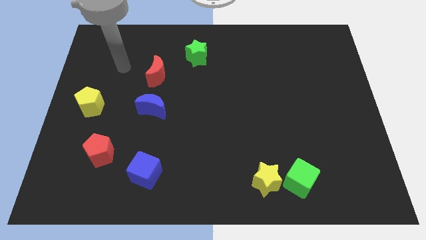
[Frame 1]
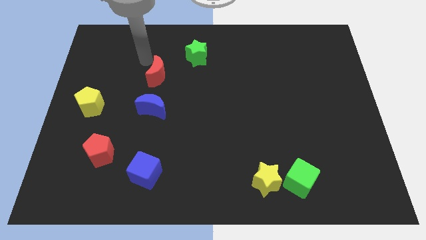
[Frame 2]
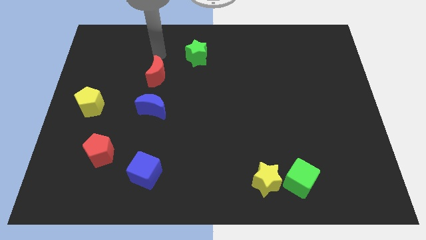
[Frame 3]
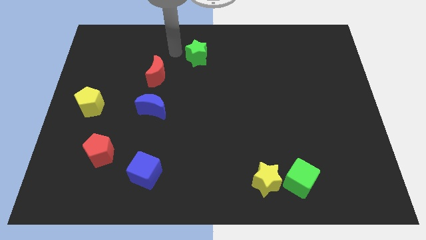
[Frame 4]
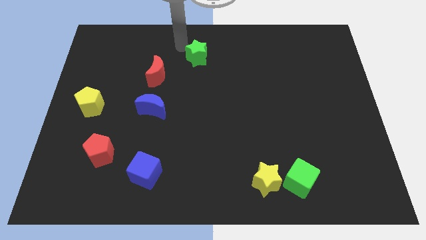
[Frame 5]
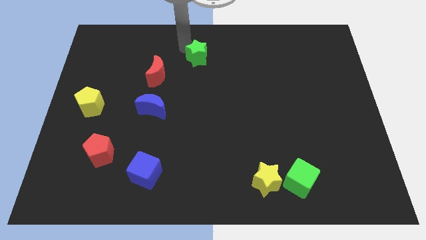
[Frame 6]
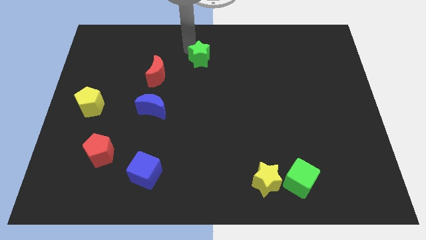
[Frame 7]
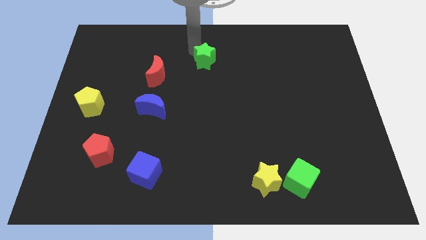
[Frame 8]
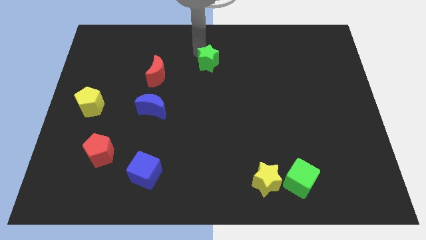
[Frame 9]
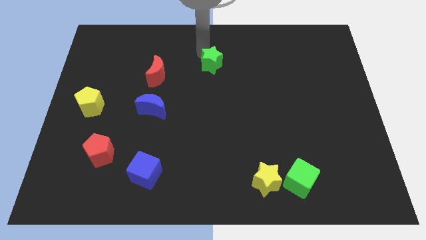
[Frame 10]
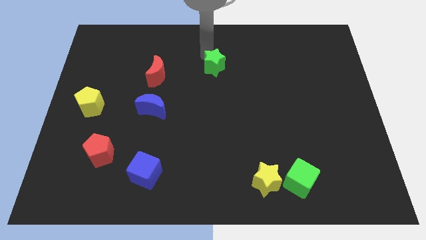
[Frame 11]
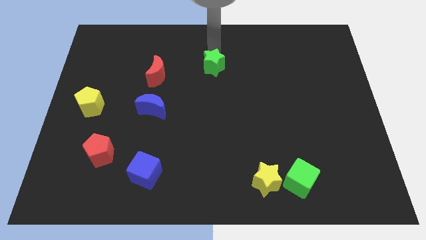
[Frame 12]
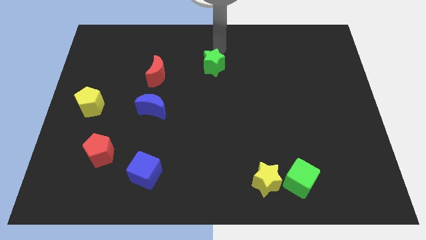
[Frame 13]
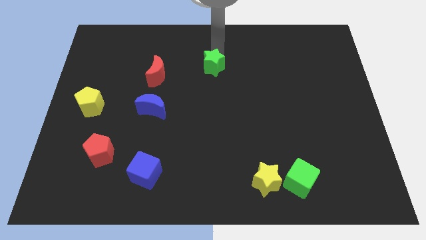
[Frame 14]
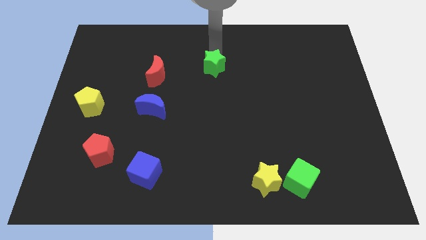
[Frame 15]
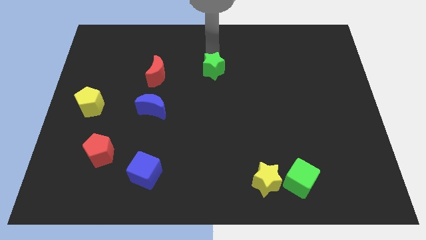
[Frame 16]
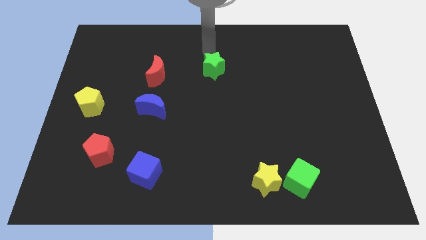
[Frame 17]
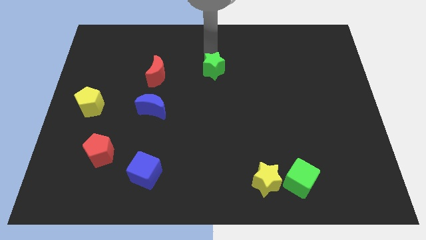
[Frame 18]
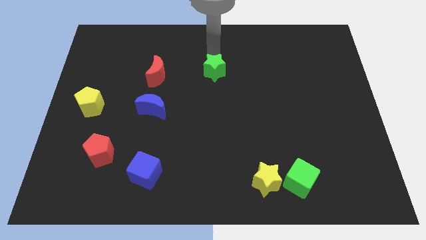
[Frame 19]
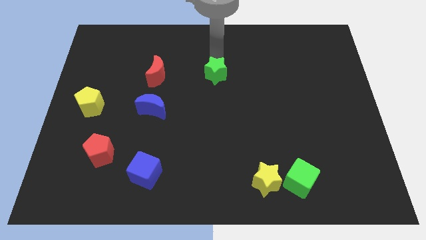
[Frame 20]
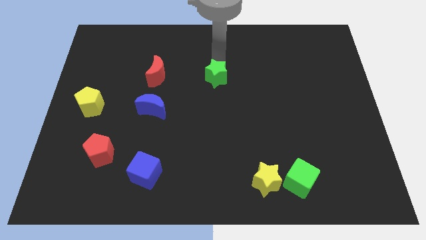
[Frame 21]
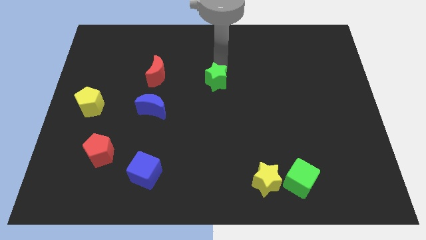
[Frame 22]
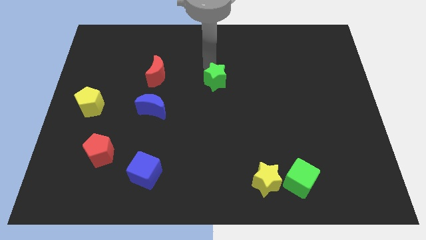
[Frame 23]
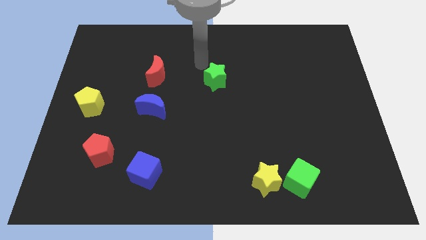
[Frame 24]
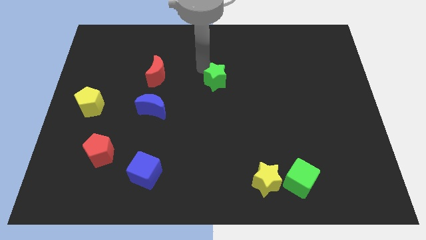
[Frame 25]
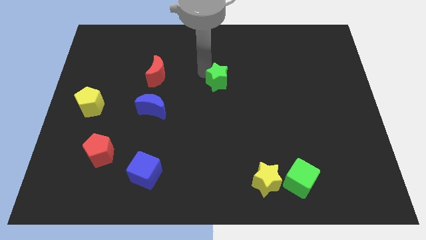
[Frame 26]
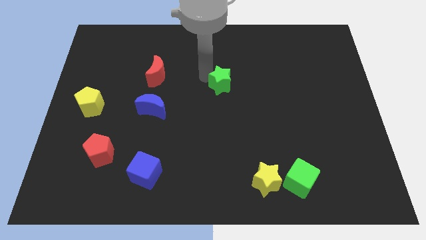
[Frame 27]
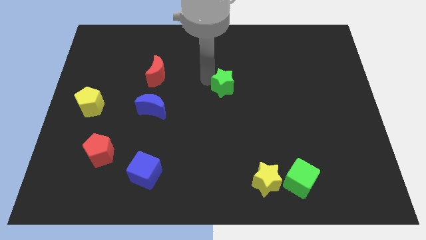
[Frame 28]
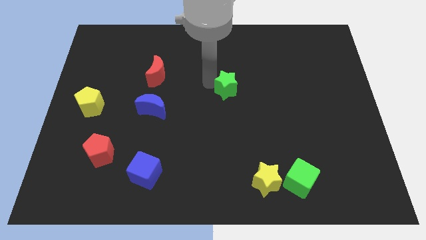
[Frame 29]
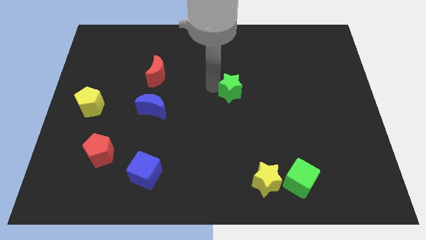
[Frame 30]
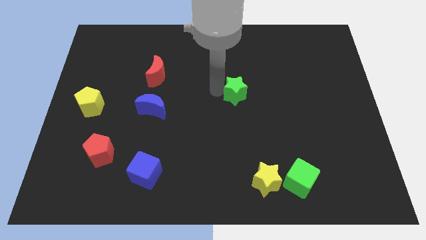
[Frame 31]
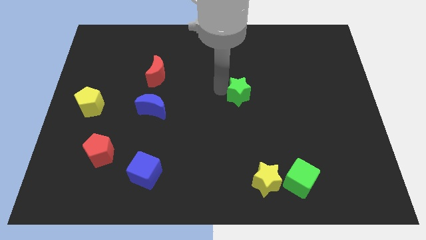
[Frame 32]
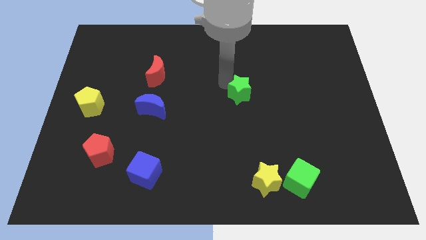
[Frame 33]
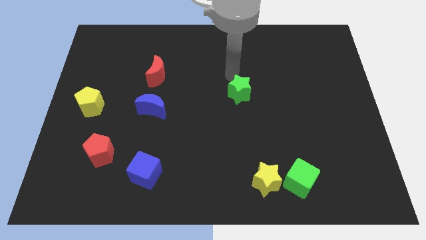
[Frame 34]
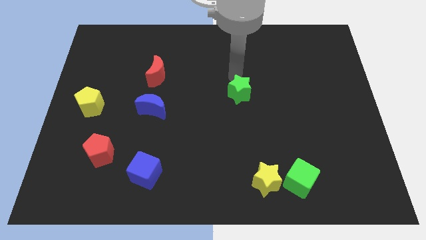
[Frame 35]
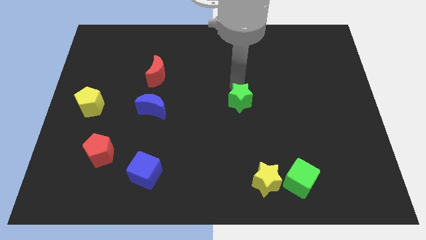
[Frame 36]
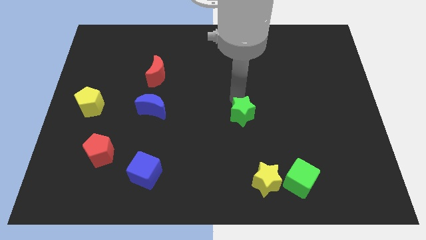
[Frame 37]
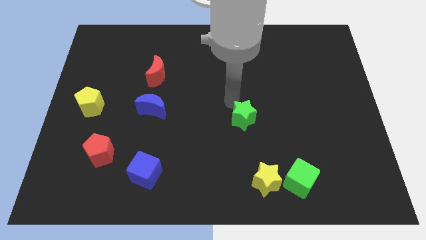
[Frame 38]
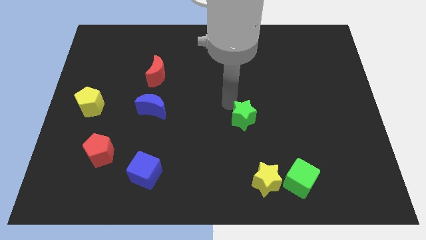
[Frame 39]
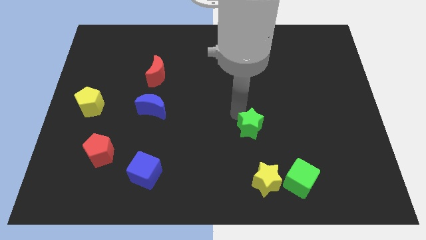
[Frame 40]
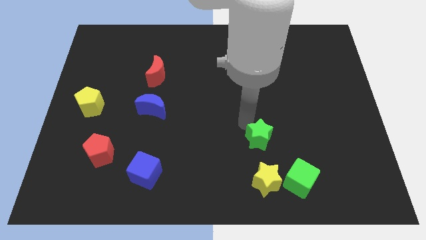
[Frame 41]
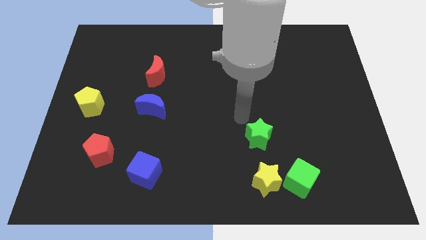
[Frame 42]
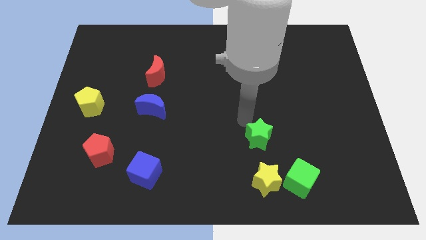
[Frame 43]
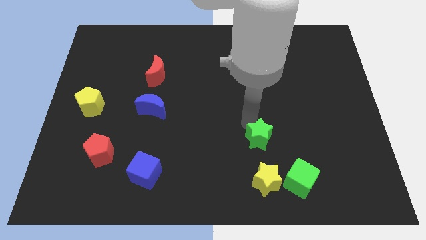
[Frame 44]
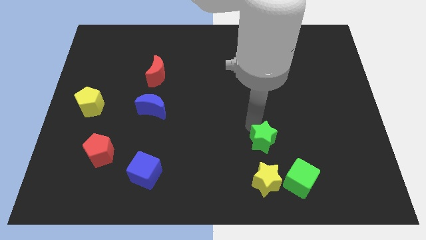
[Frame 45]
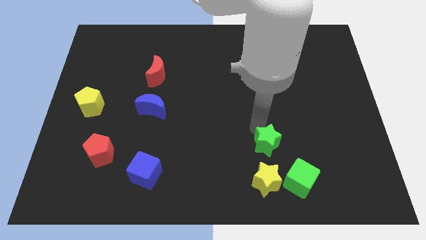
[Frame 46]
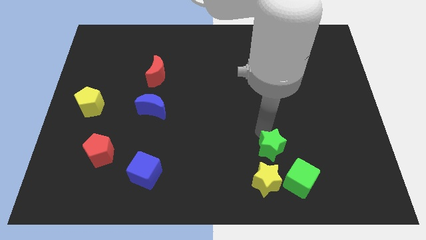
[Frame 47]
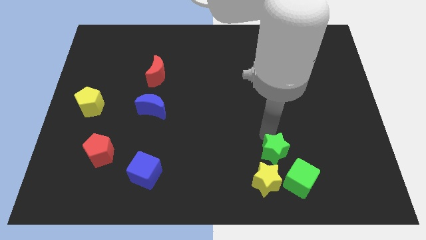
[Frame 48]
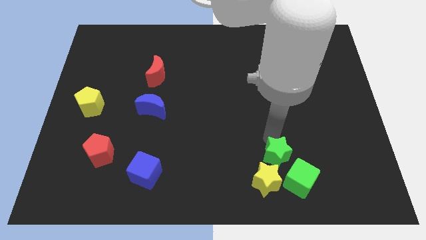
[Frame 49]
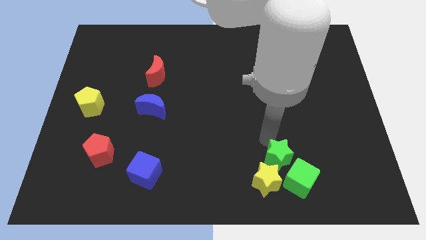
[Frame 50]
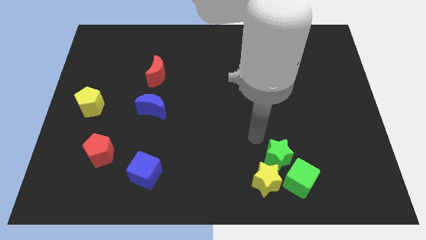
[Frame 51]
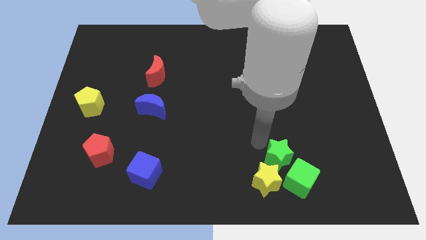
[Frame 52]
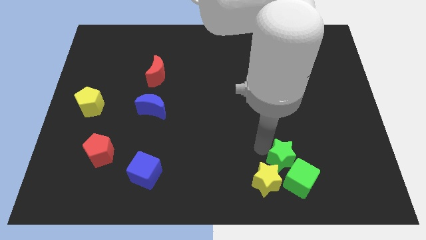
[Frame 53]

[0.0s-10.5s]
slide the green star towards the green cube

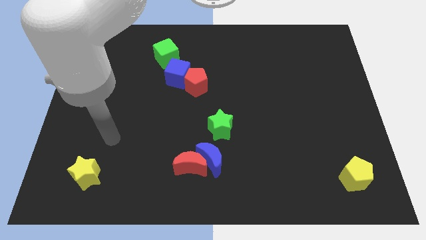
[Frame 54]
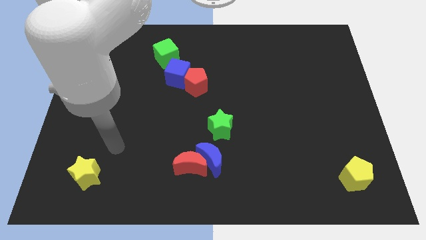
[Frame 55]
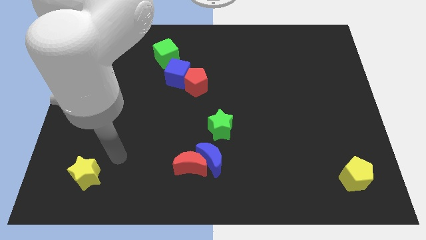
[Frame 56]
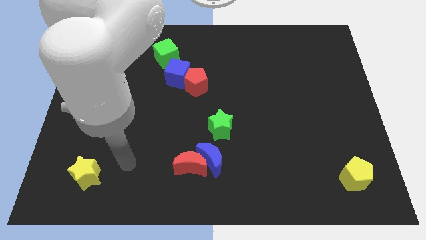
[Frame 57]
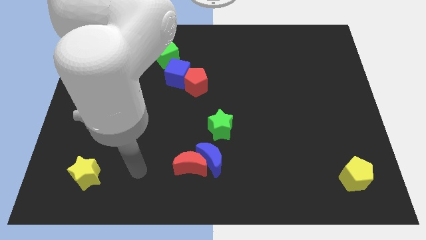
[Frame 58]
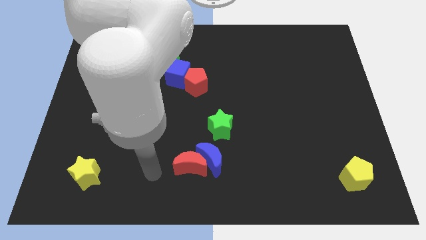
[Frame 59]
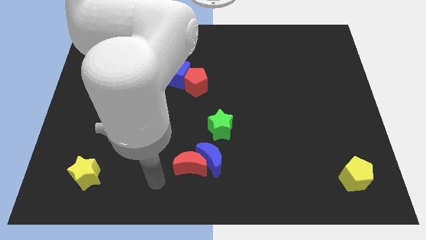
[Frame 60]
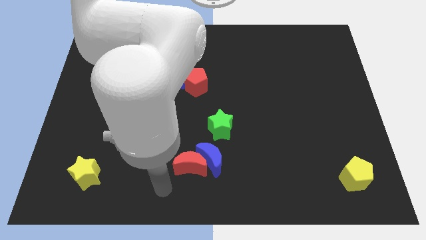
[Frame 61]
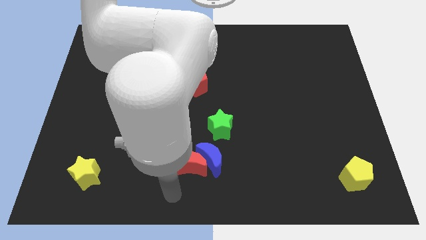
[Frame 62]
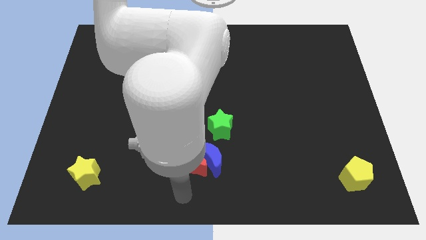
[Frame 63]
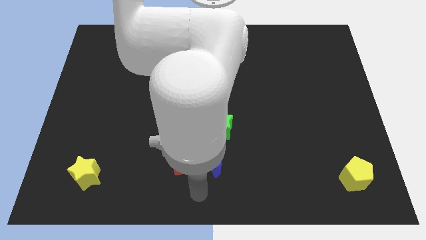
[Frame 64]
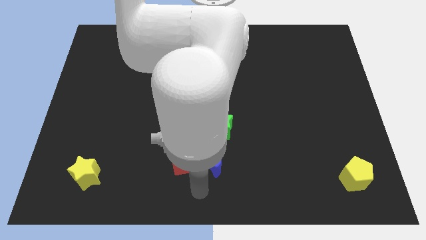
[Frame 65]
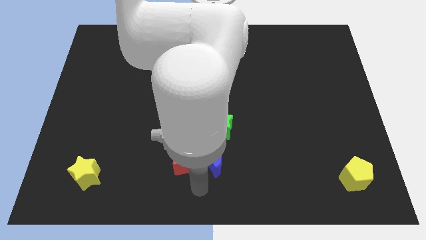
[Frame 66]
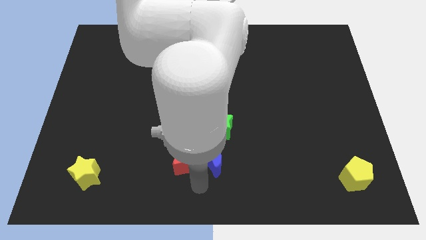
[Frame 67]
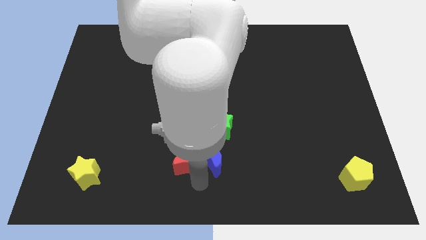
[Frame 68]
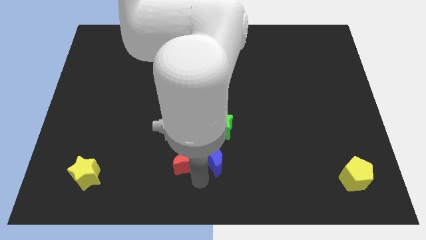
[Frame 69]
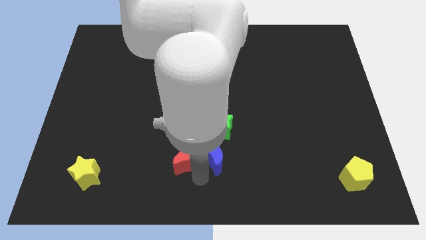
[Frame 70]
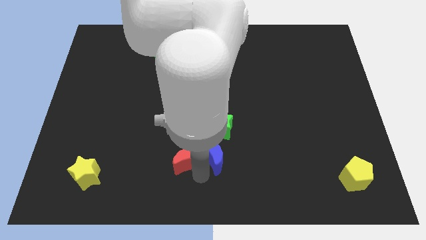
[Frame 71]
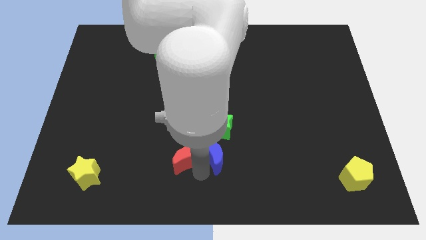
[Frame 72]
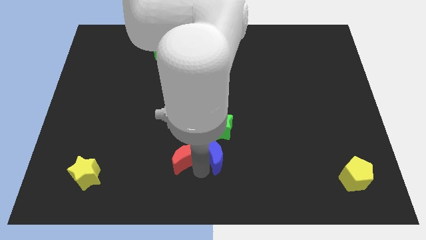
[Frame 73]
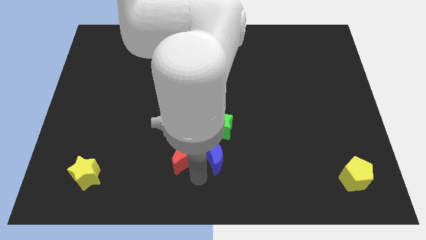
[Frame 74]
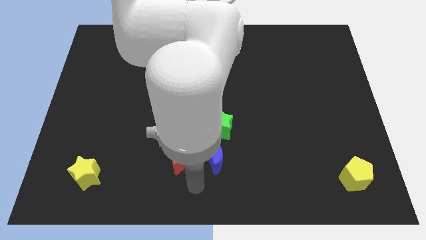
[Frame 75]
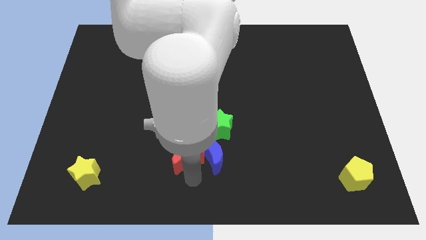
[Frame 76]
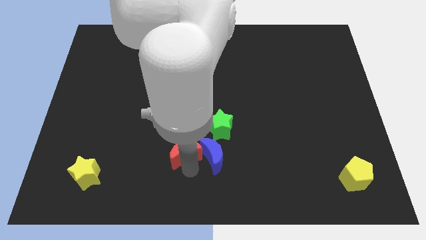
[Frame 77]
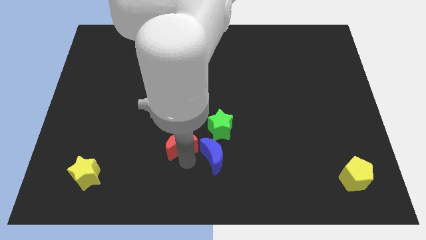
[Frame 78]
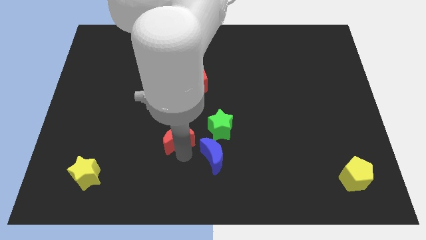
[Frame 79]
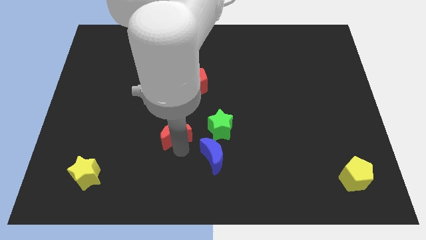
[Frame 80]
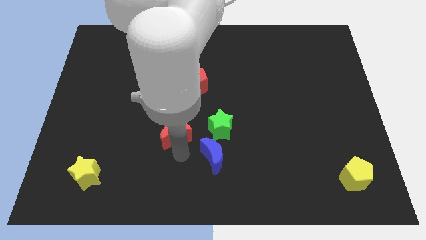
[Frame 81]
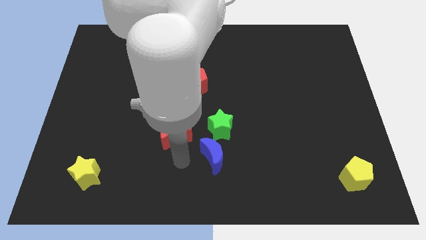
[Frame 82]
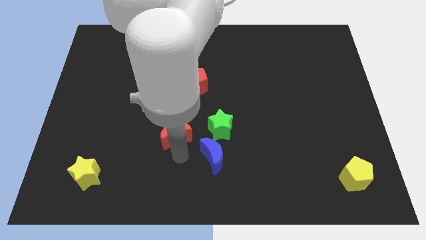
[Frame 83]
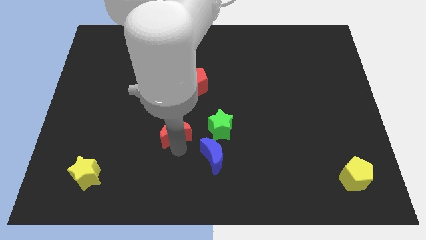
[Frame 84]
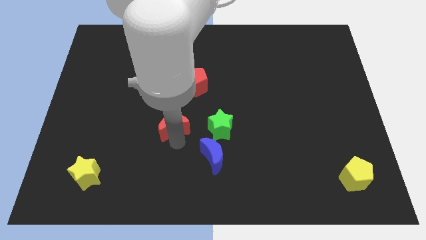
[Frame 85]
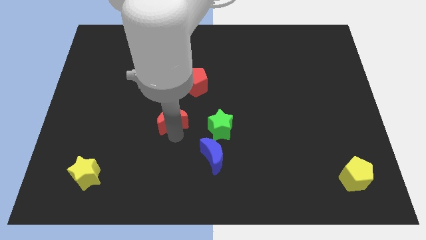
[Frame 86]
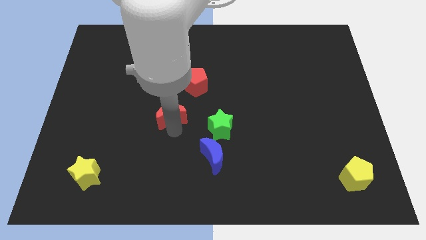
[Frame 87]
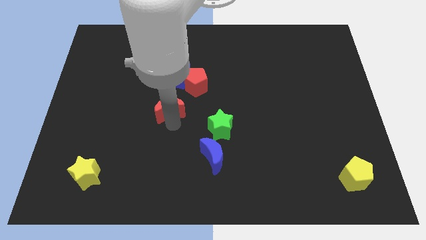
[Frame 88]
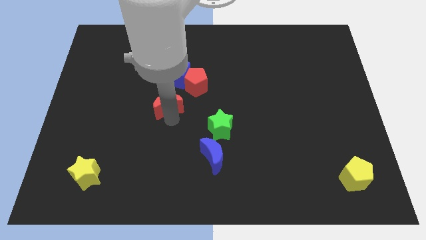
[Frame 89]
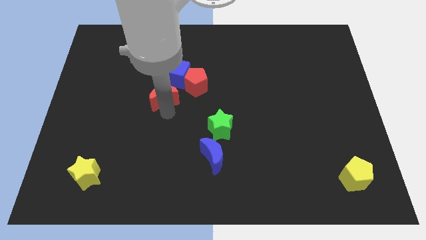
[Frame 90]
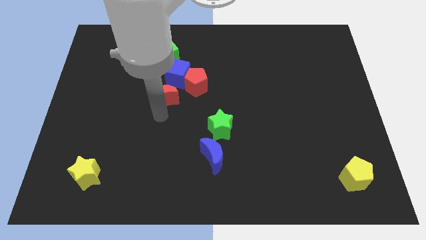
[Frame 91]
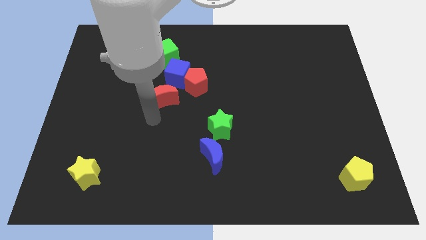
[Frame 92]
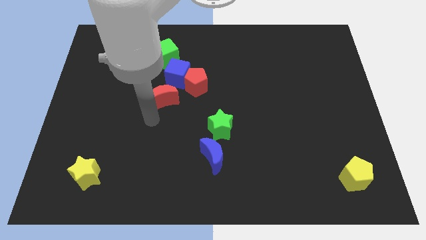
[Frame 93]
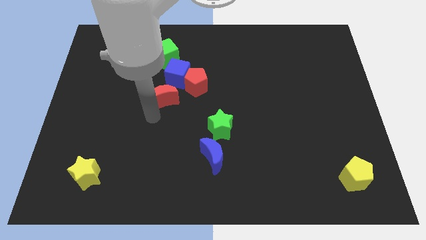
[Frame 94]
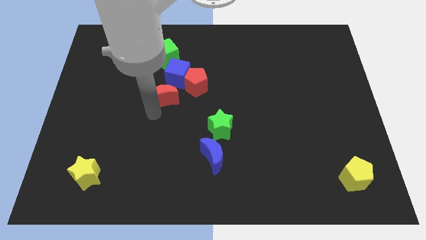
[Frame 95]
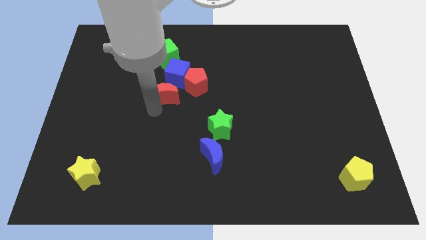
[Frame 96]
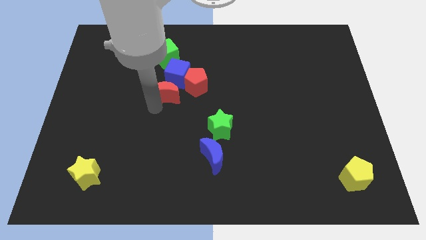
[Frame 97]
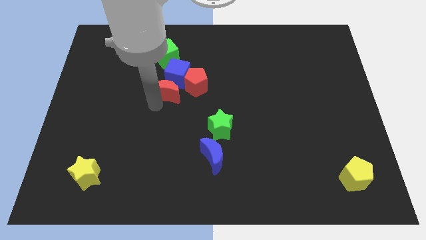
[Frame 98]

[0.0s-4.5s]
put the red moon towards the blue cube
